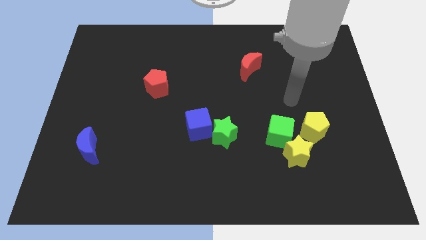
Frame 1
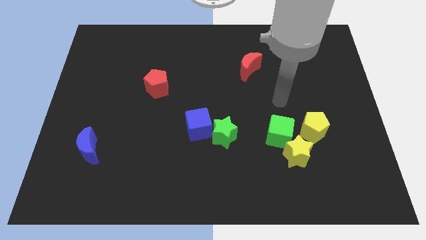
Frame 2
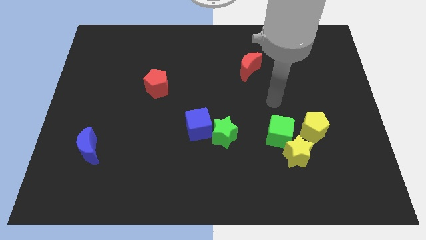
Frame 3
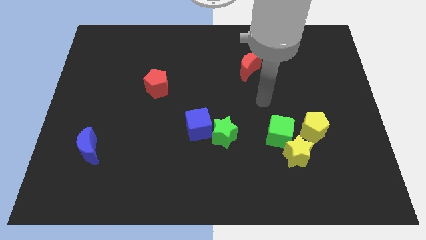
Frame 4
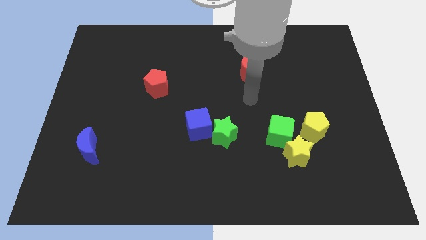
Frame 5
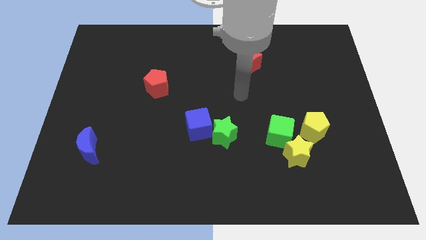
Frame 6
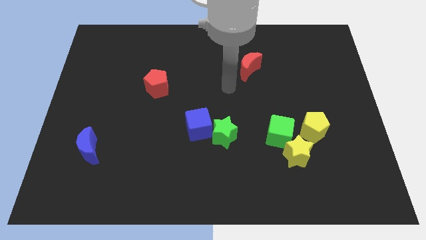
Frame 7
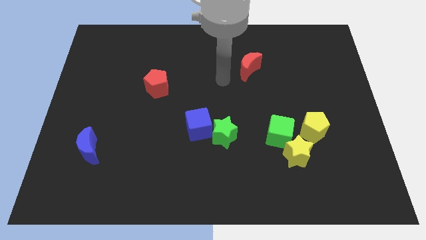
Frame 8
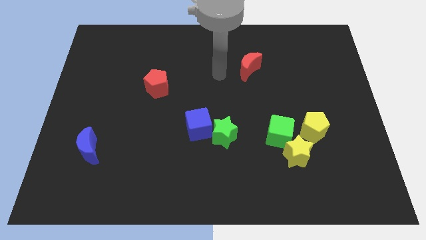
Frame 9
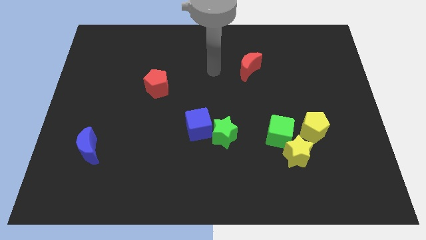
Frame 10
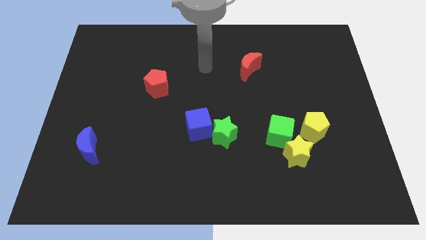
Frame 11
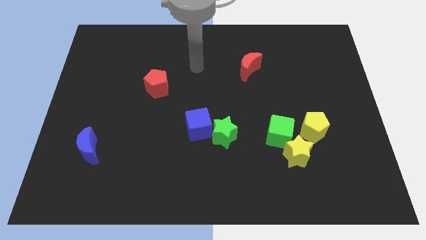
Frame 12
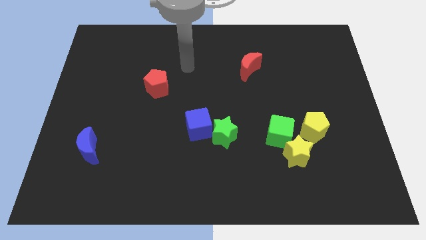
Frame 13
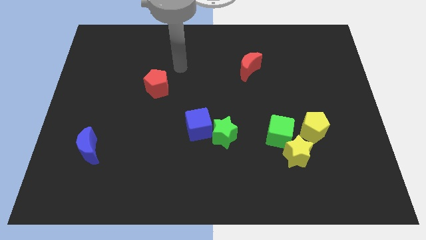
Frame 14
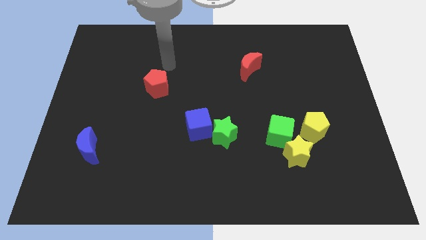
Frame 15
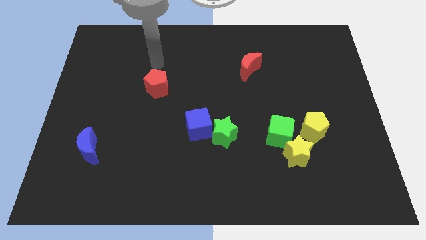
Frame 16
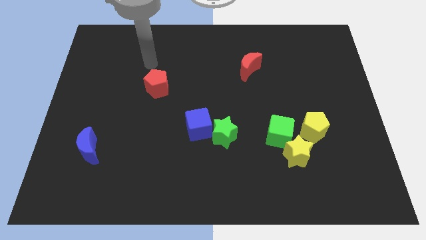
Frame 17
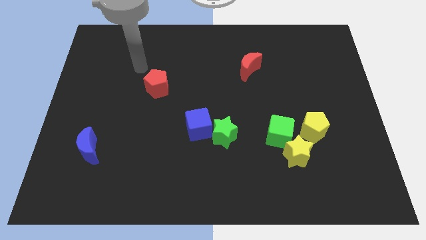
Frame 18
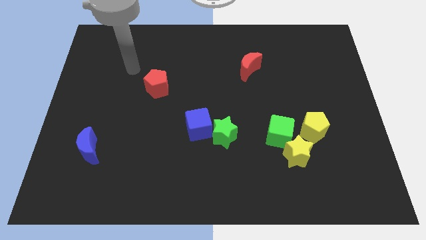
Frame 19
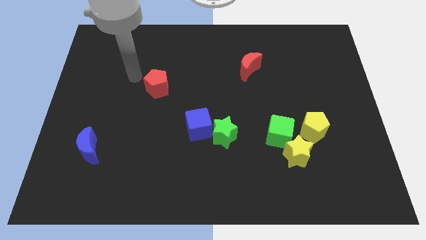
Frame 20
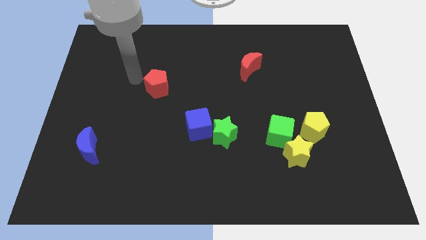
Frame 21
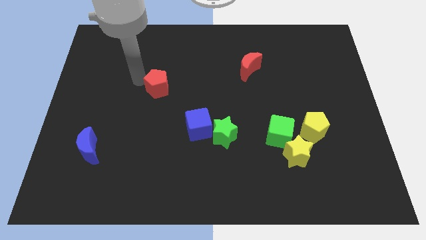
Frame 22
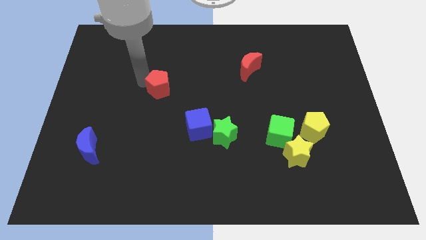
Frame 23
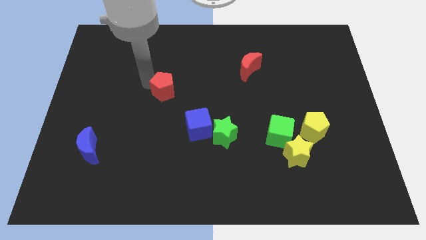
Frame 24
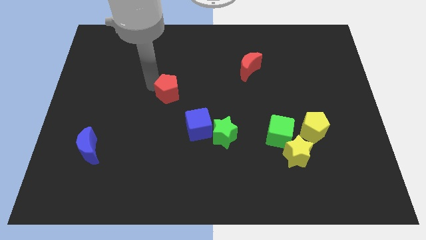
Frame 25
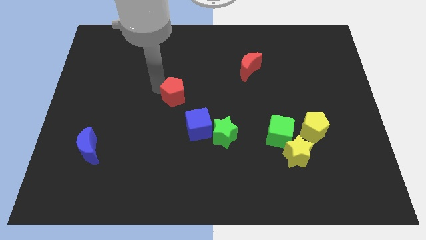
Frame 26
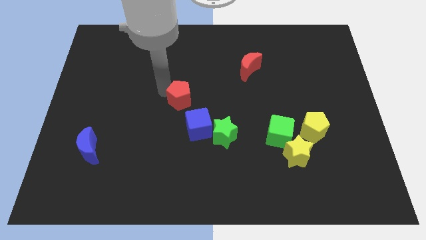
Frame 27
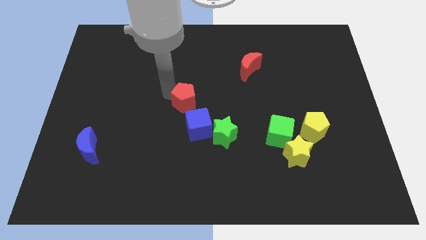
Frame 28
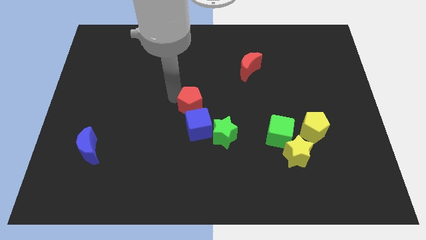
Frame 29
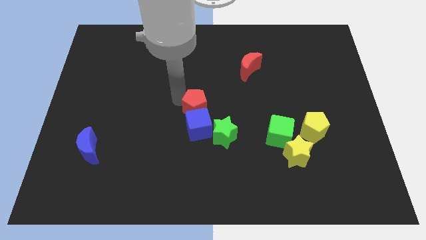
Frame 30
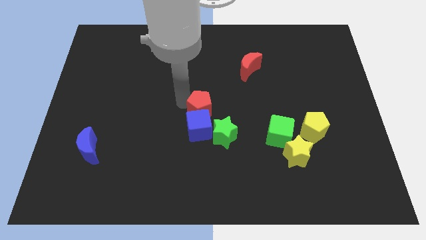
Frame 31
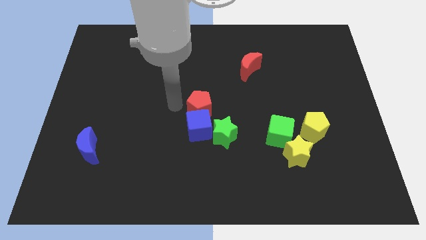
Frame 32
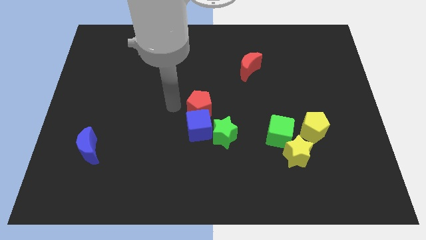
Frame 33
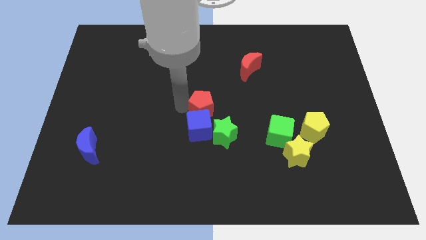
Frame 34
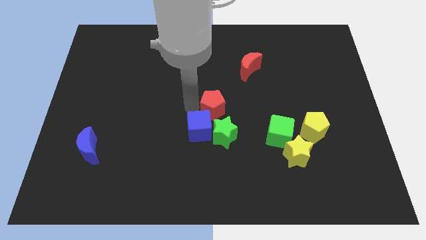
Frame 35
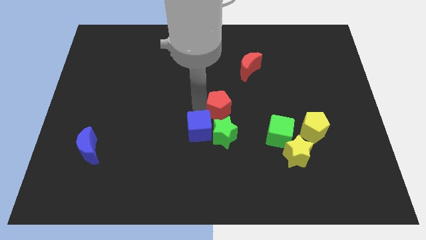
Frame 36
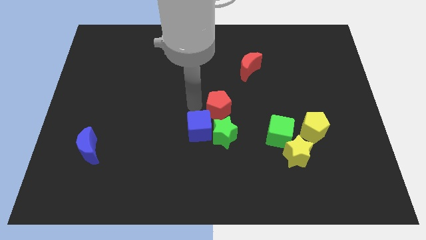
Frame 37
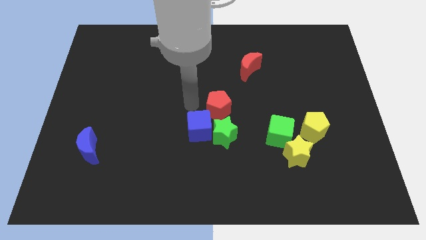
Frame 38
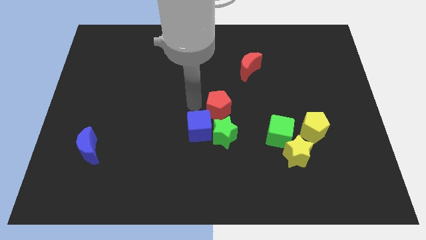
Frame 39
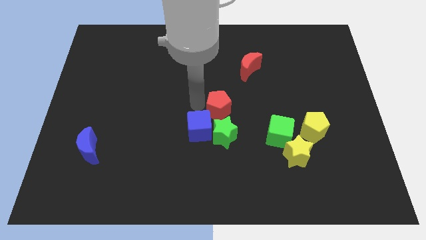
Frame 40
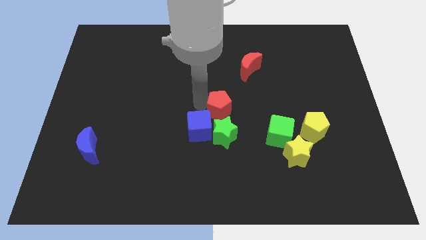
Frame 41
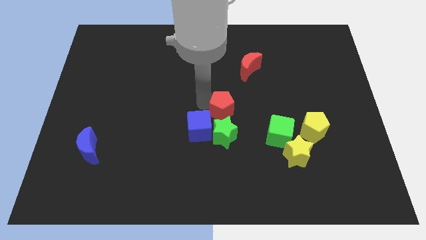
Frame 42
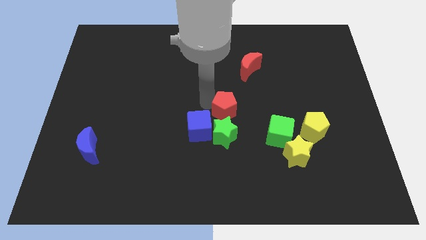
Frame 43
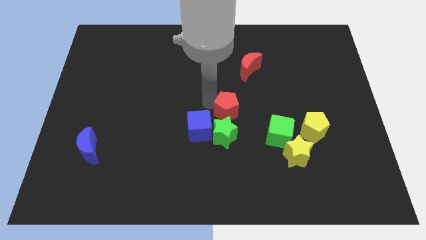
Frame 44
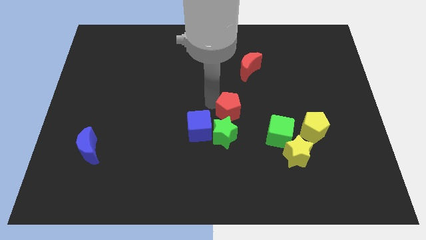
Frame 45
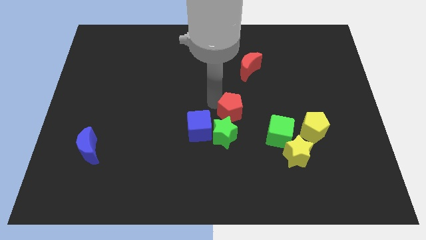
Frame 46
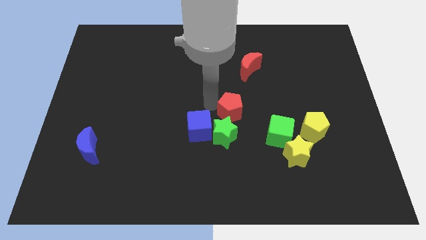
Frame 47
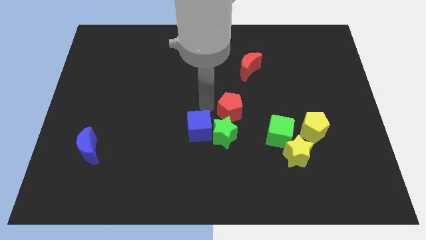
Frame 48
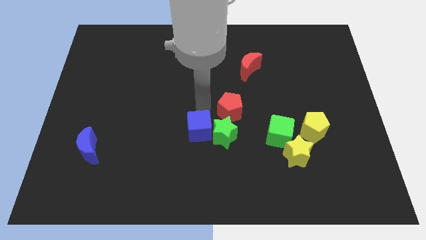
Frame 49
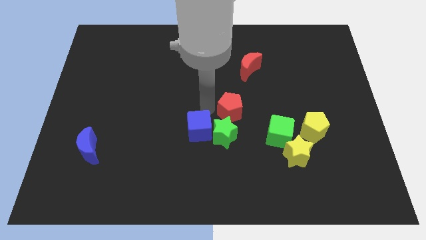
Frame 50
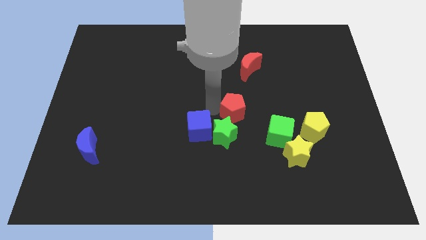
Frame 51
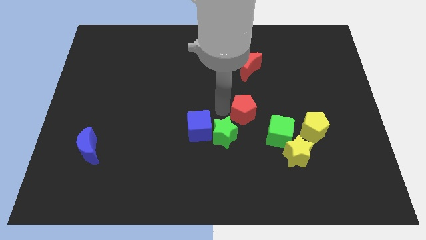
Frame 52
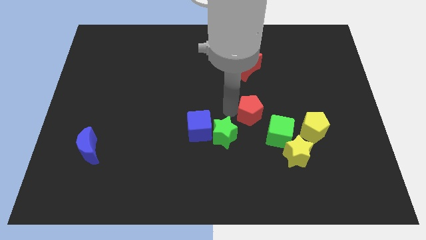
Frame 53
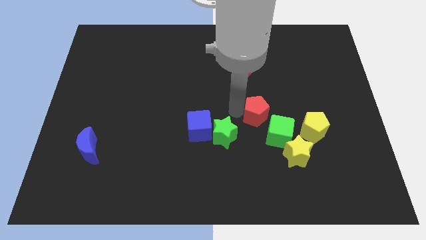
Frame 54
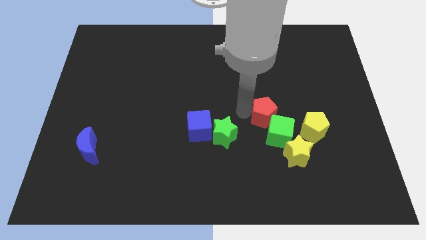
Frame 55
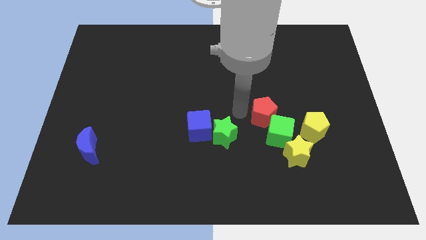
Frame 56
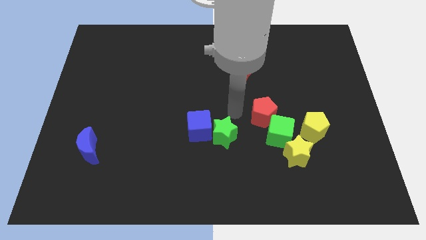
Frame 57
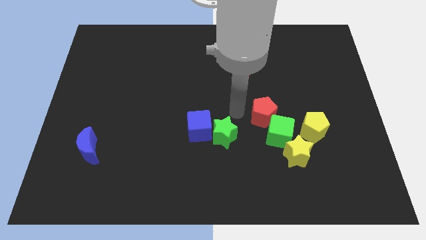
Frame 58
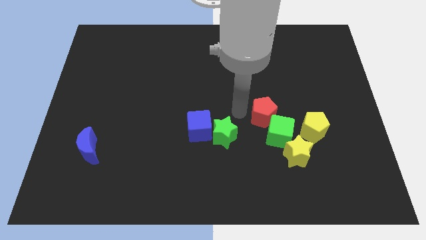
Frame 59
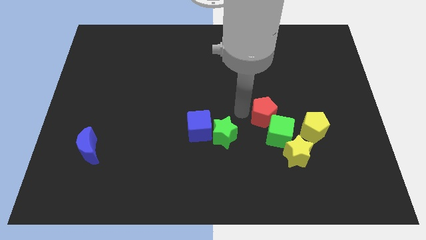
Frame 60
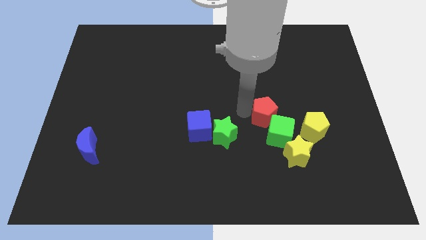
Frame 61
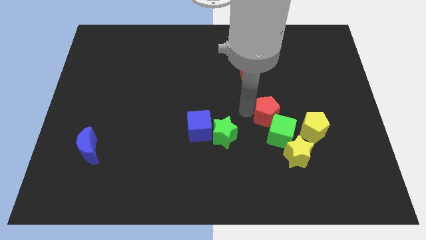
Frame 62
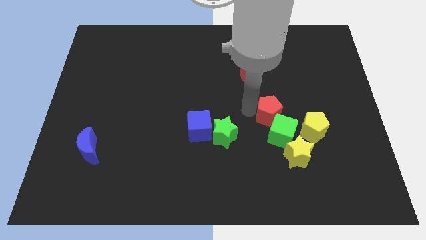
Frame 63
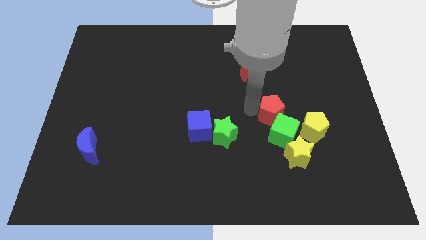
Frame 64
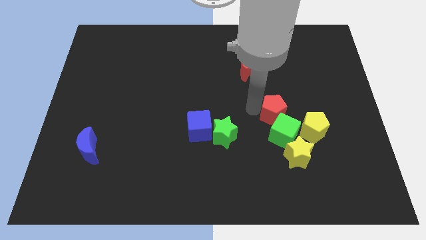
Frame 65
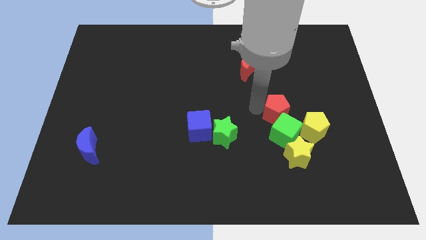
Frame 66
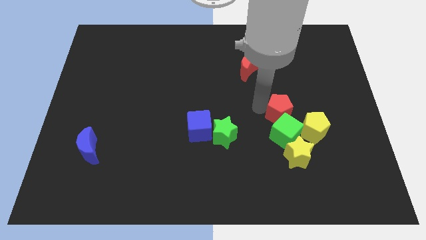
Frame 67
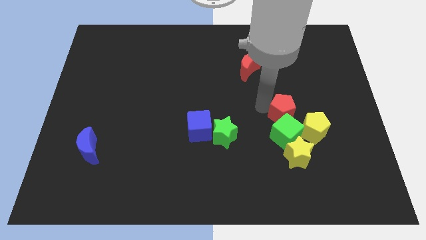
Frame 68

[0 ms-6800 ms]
slide the red pentagon to the top right side of the green cube
